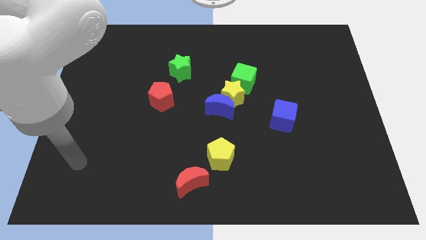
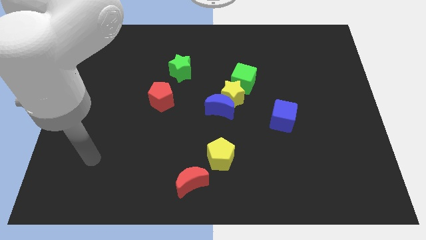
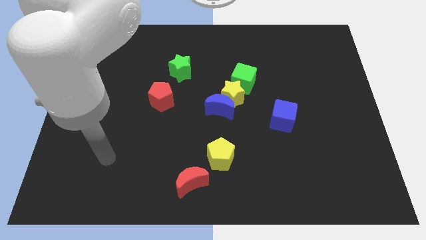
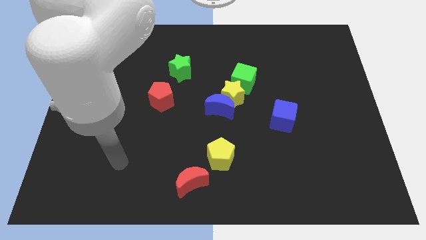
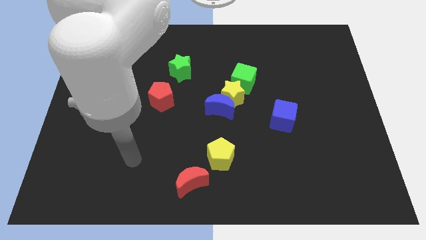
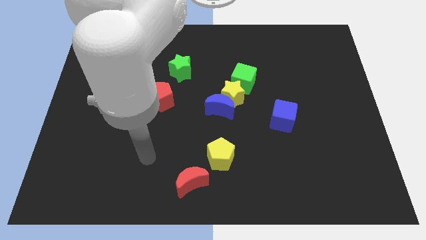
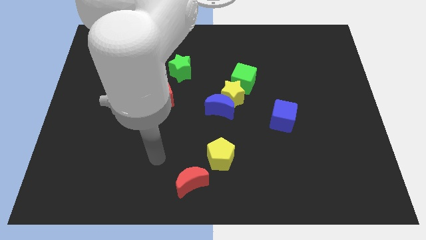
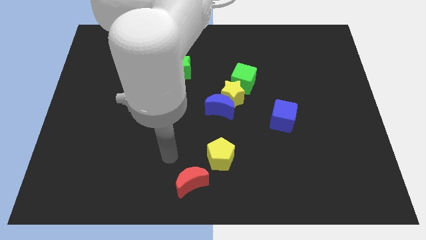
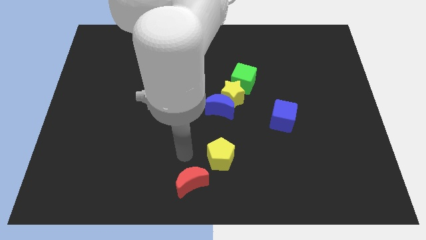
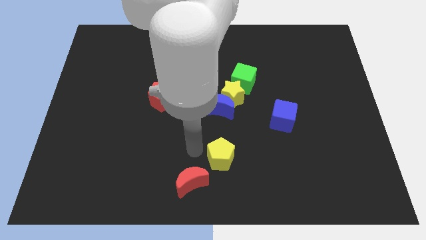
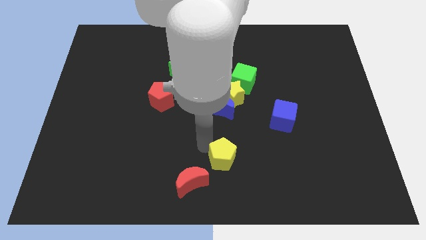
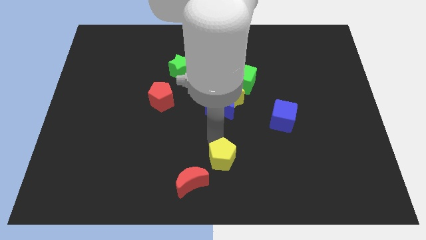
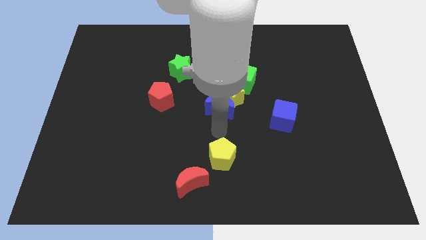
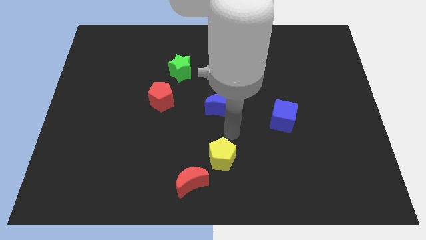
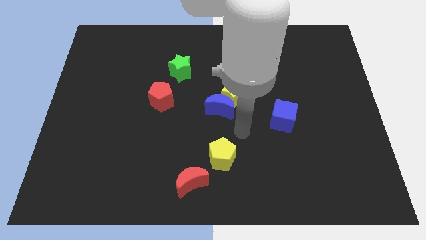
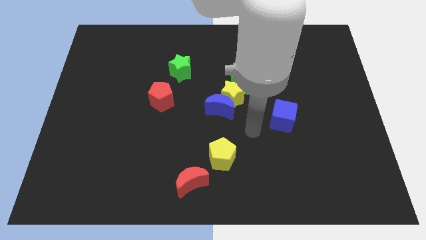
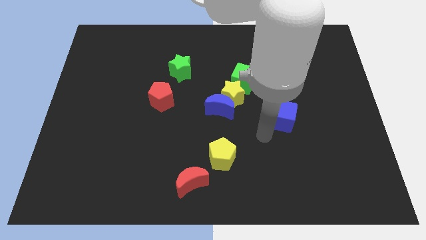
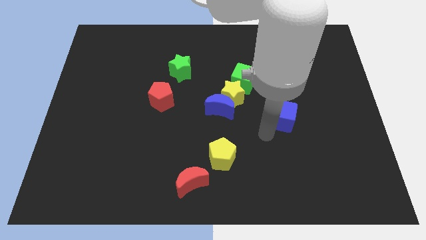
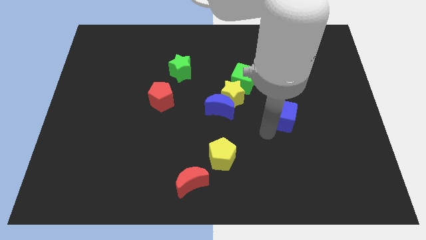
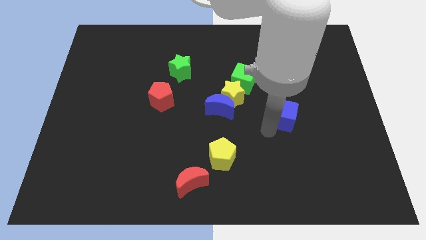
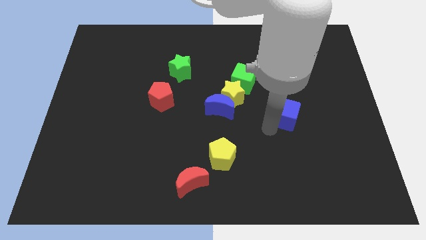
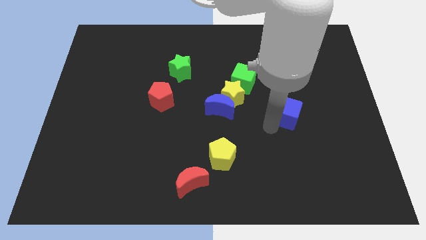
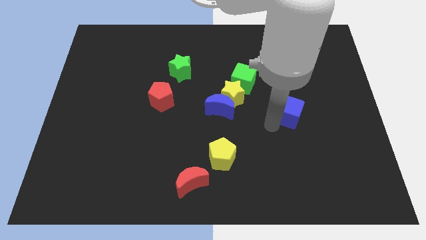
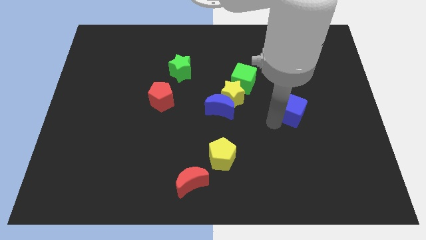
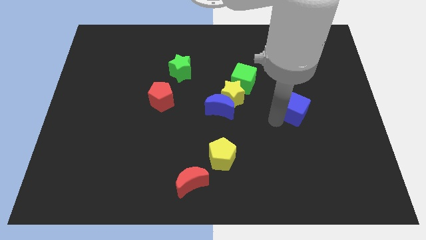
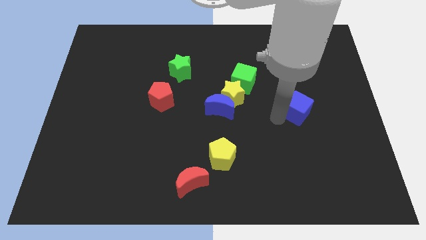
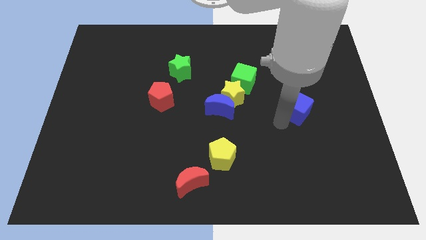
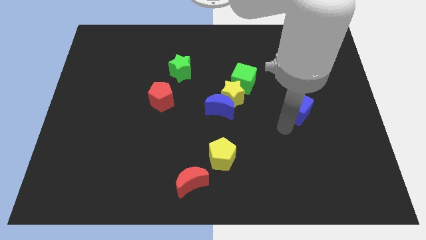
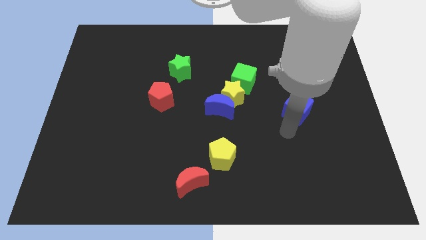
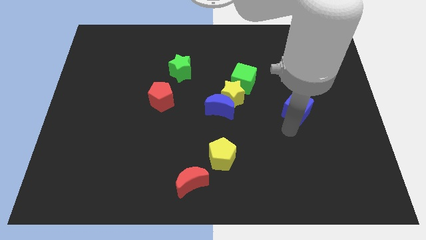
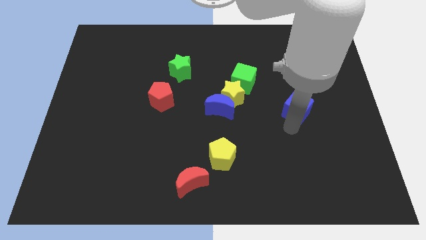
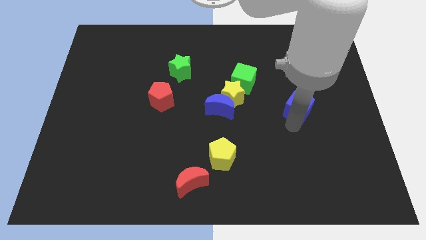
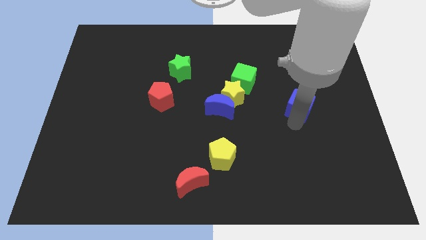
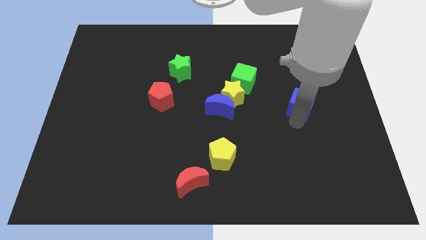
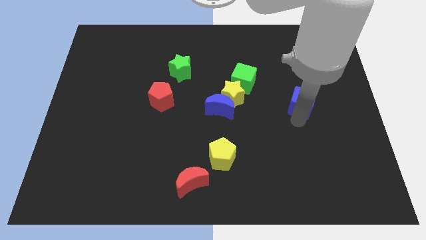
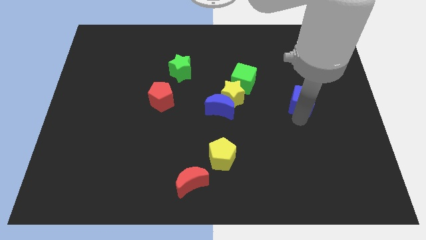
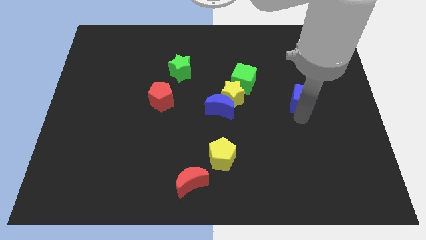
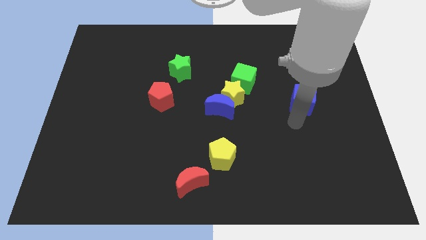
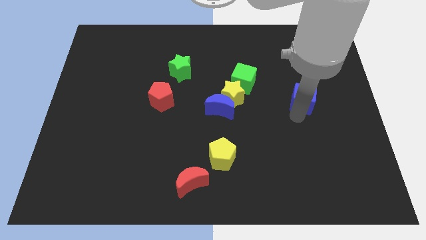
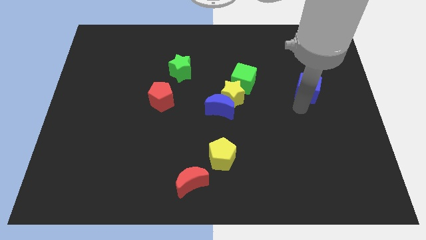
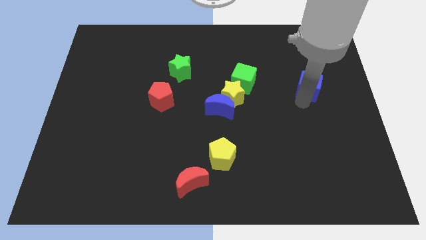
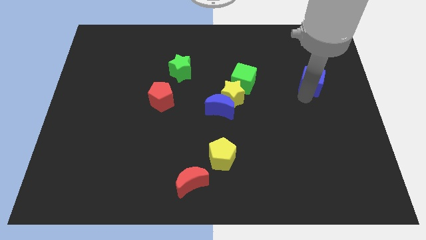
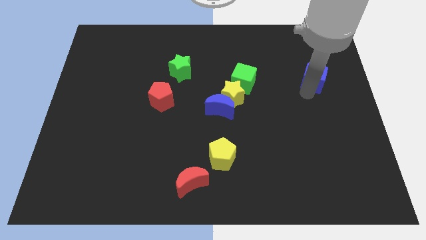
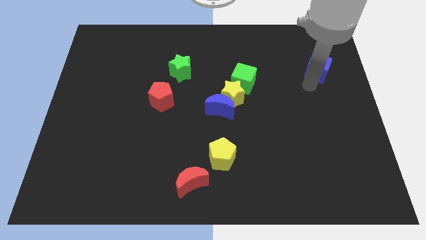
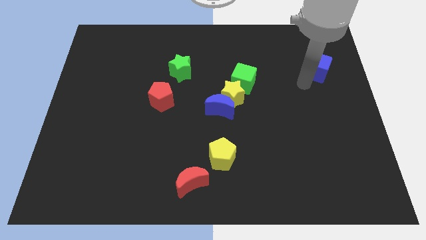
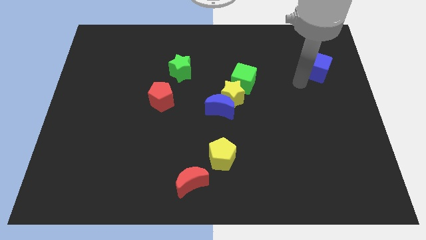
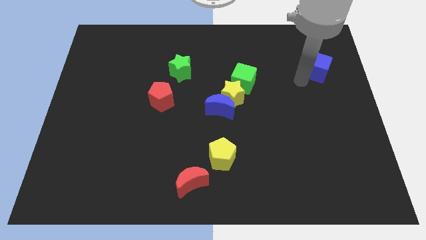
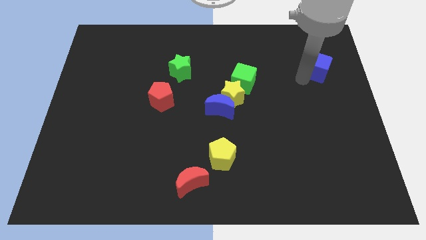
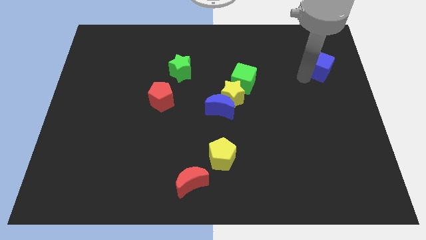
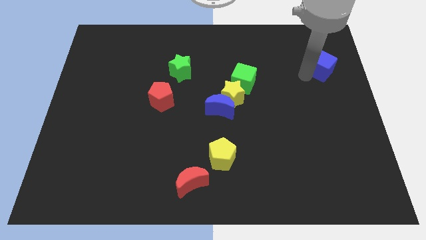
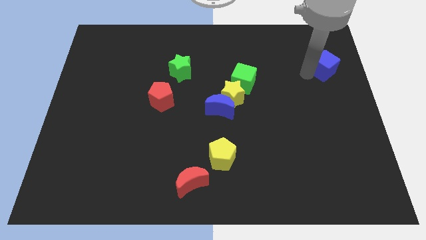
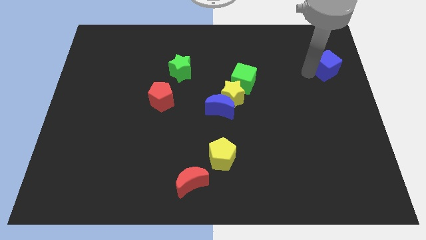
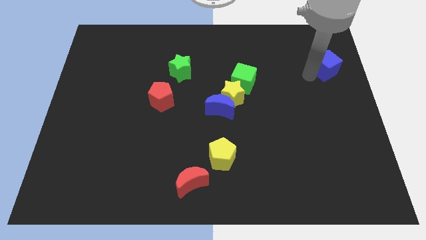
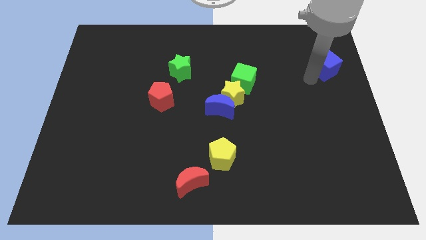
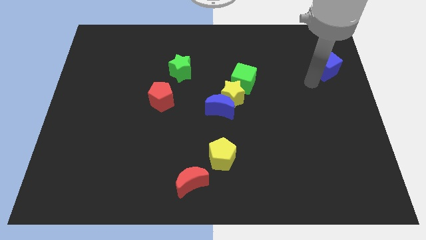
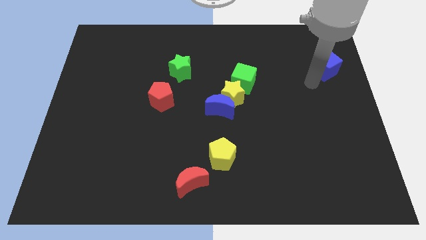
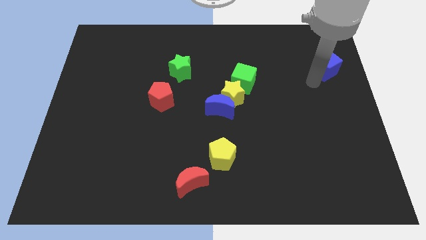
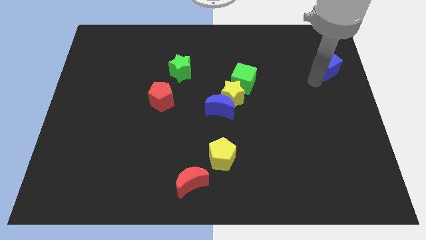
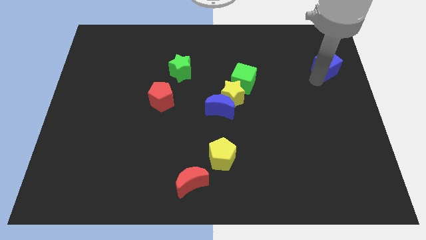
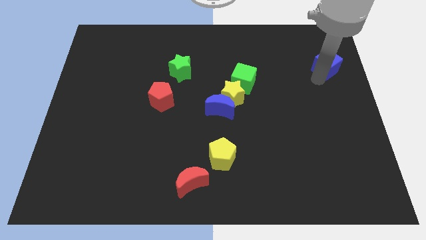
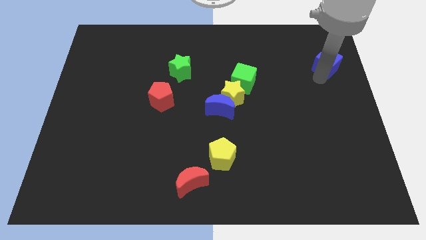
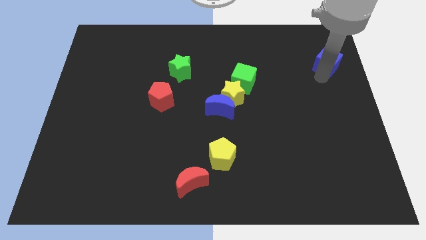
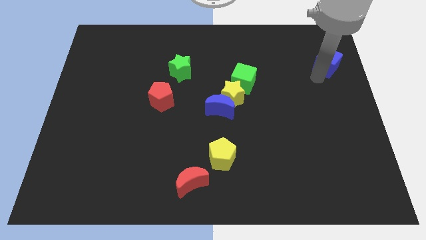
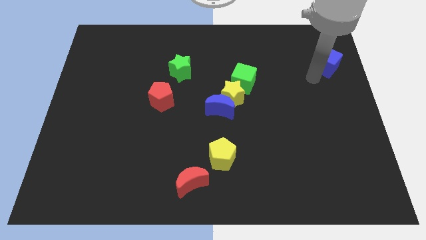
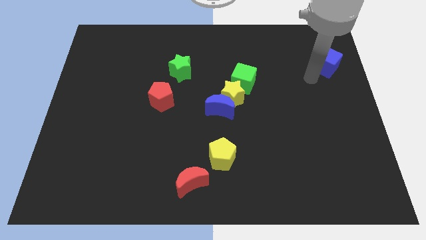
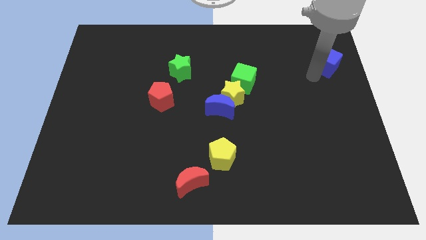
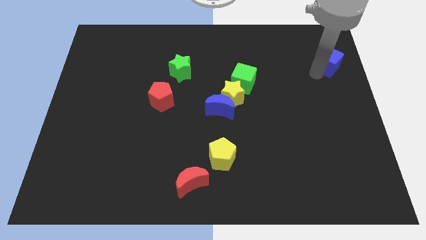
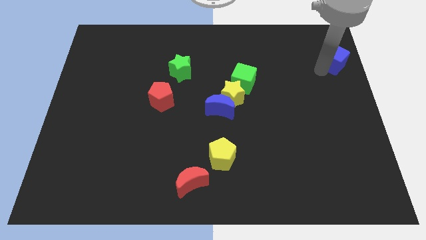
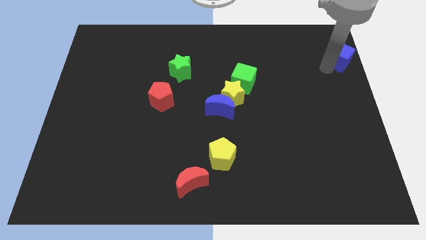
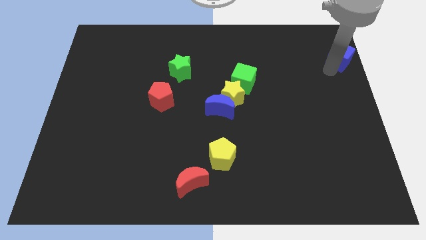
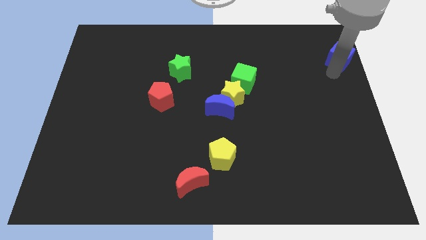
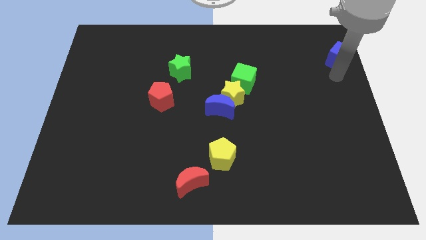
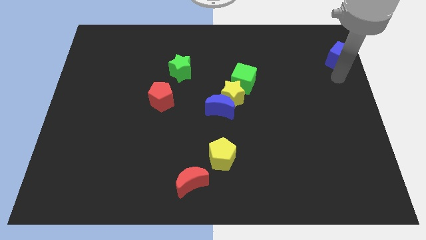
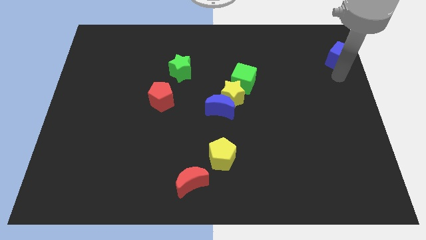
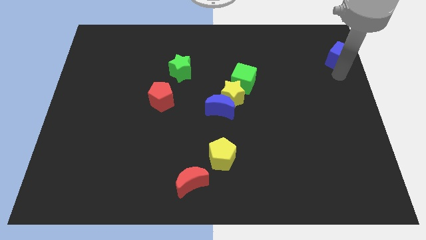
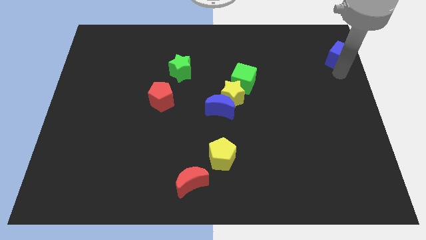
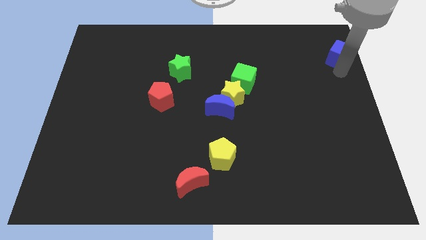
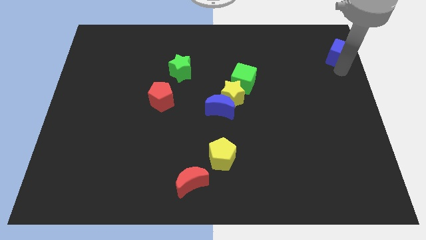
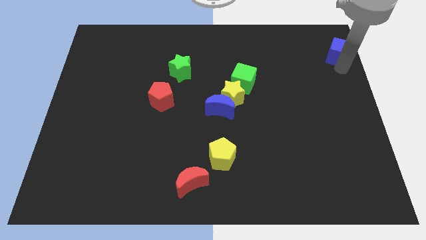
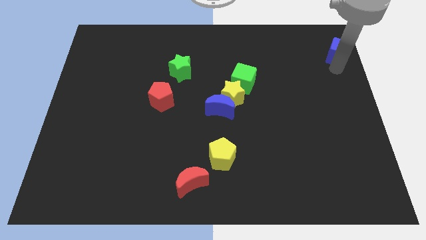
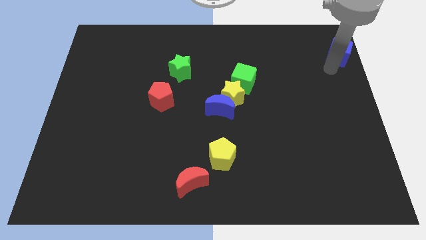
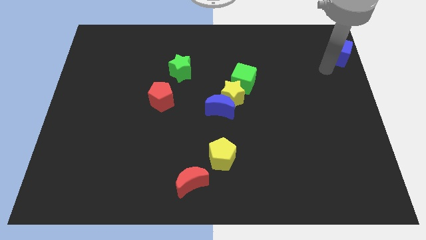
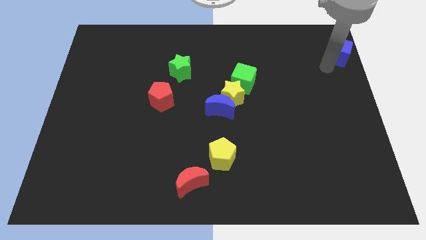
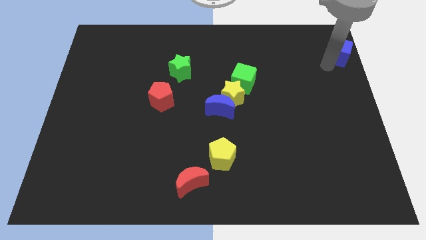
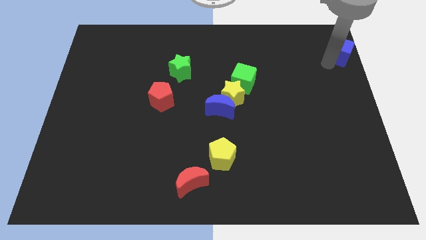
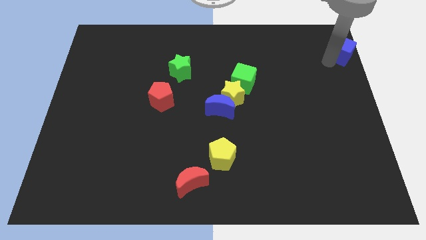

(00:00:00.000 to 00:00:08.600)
move the blue cube to the upper right corner
